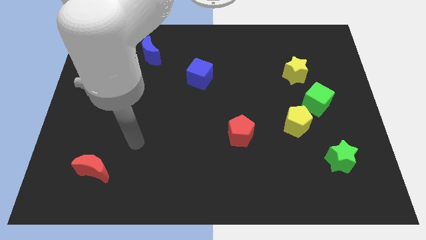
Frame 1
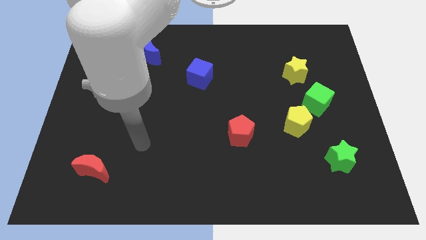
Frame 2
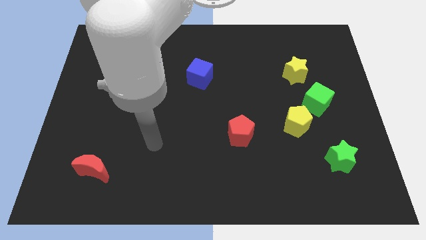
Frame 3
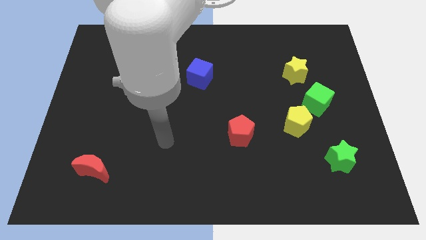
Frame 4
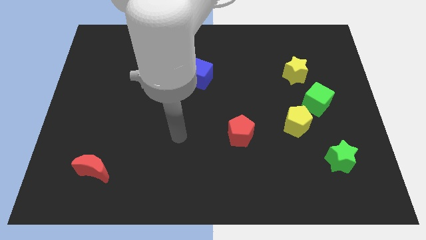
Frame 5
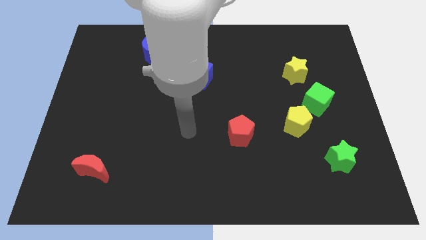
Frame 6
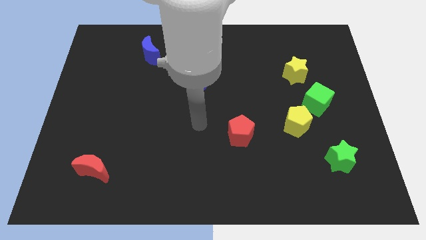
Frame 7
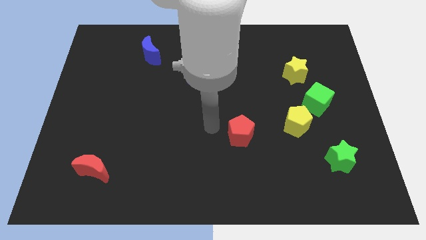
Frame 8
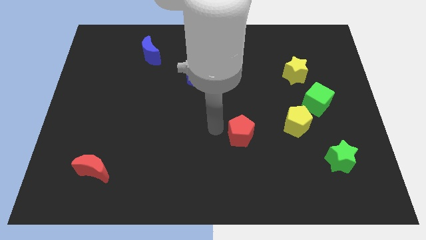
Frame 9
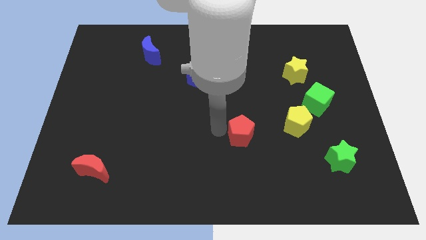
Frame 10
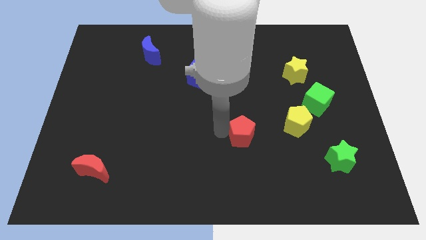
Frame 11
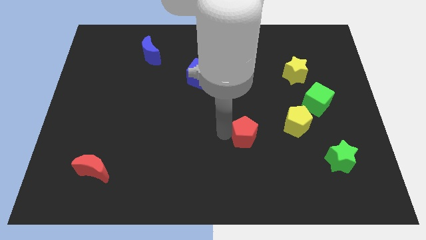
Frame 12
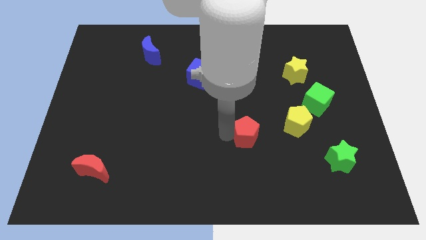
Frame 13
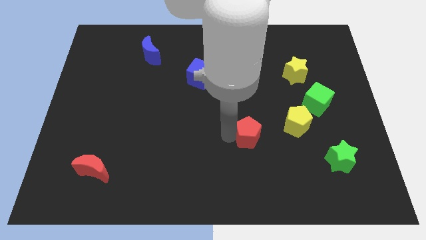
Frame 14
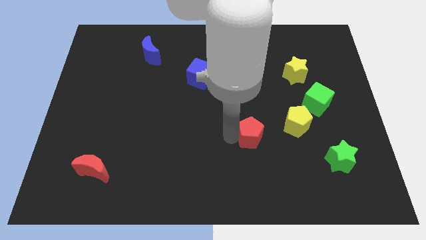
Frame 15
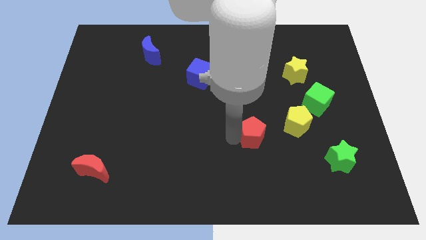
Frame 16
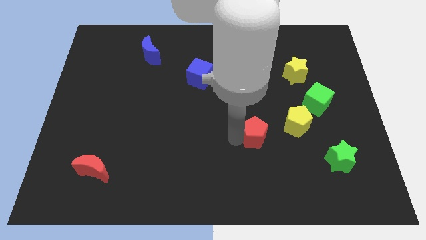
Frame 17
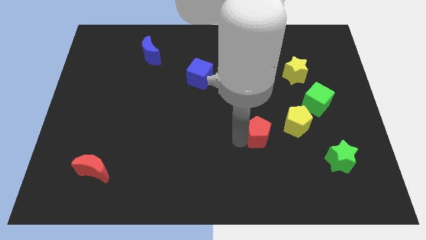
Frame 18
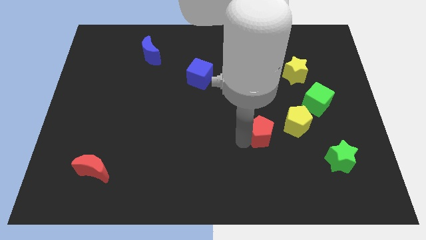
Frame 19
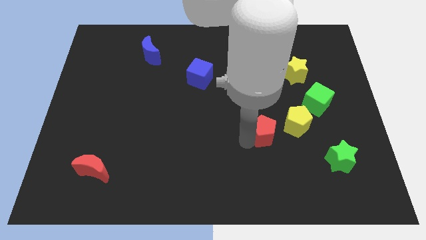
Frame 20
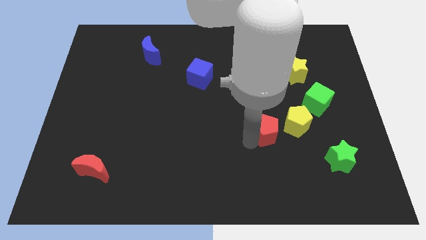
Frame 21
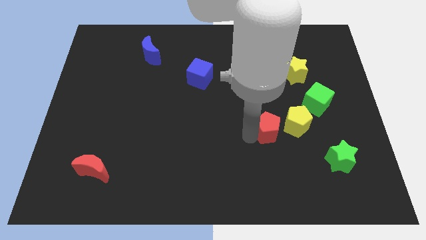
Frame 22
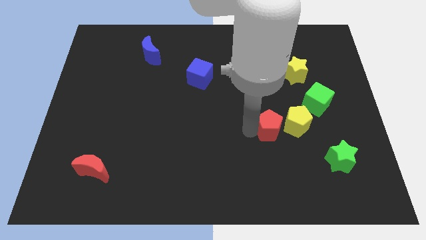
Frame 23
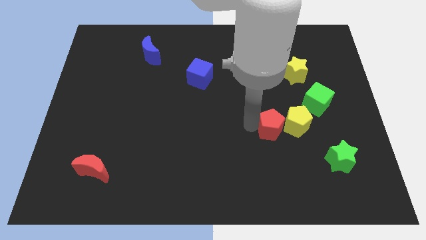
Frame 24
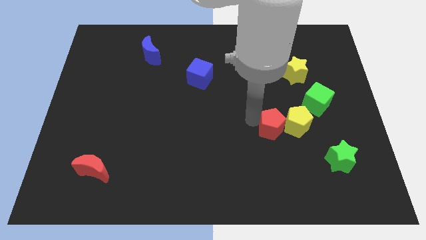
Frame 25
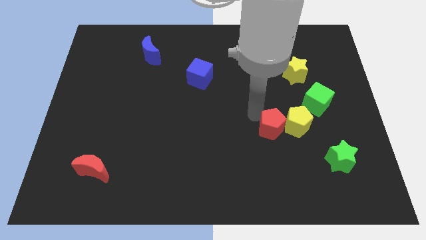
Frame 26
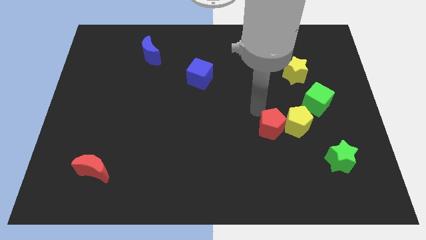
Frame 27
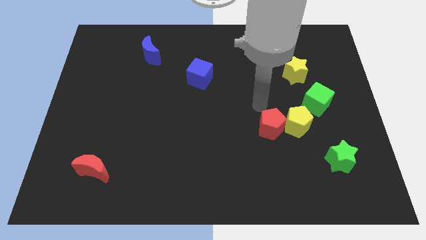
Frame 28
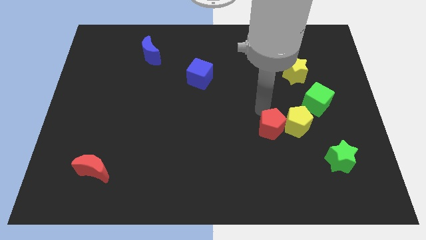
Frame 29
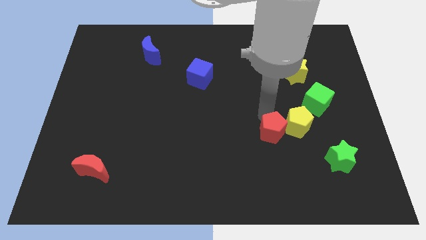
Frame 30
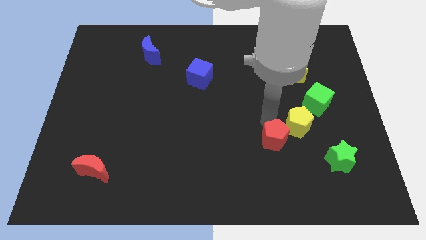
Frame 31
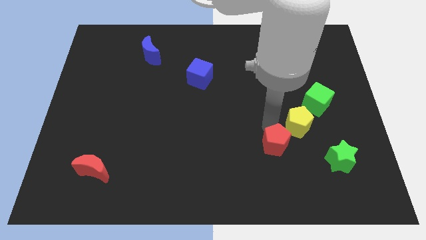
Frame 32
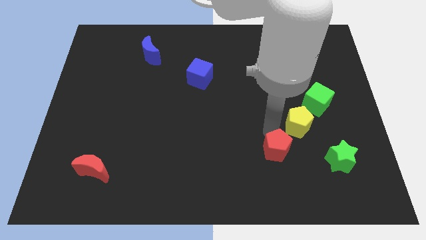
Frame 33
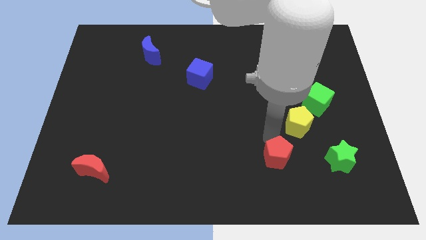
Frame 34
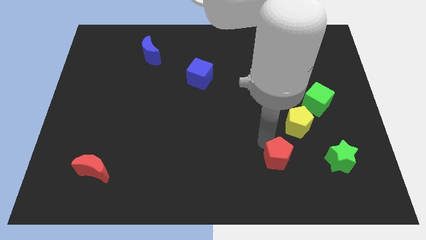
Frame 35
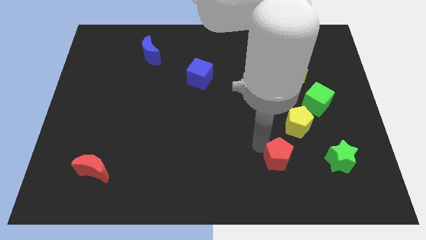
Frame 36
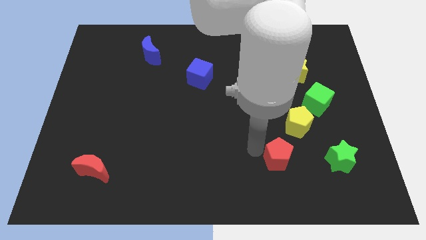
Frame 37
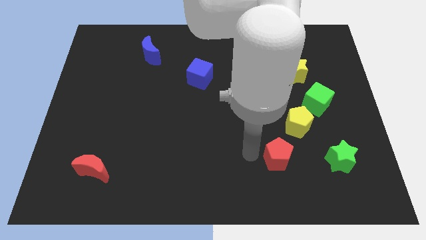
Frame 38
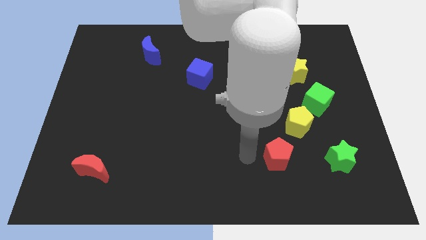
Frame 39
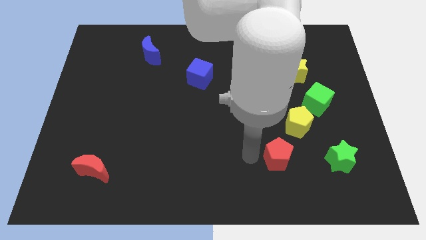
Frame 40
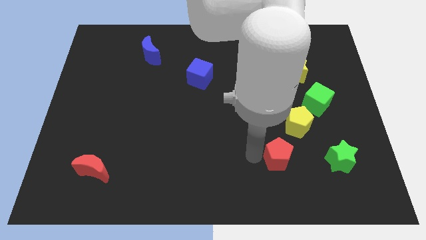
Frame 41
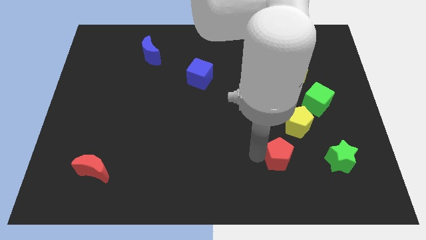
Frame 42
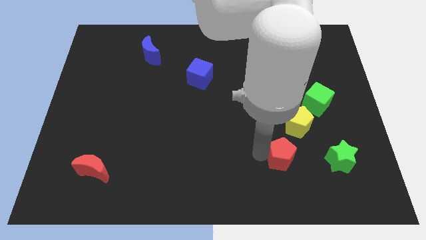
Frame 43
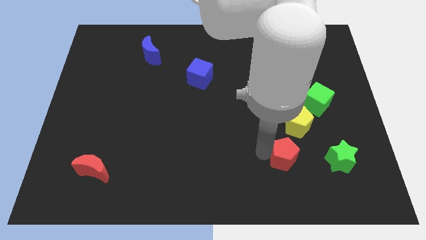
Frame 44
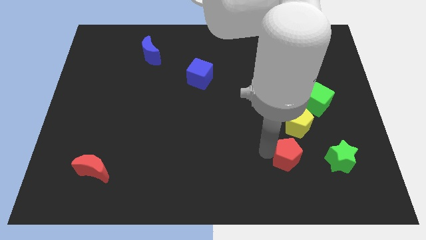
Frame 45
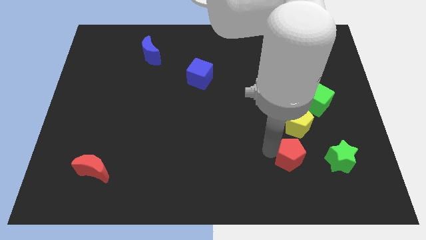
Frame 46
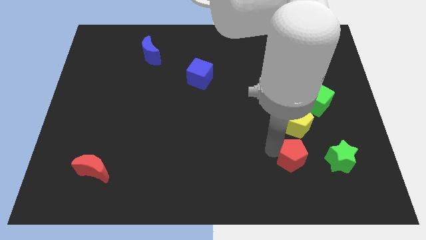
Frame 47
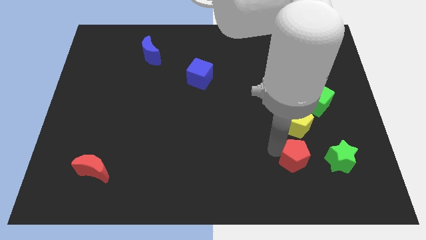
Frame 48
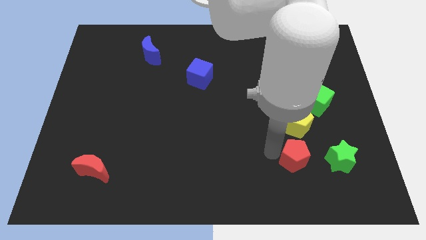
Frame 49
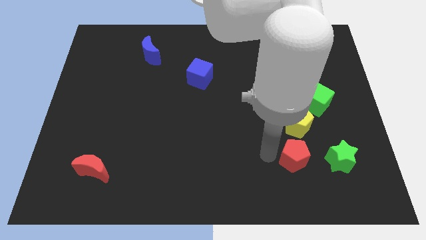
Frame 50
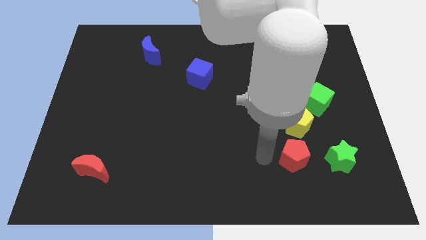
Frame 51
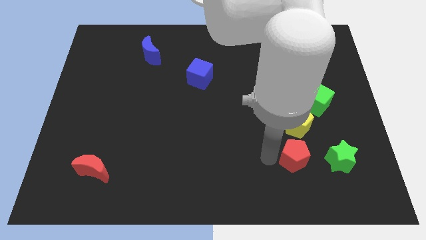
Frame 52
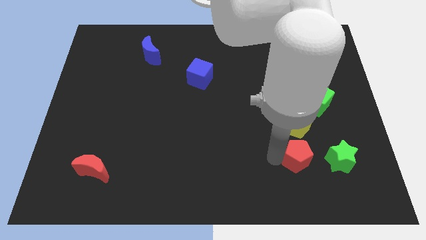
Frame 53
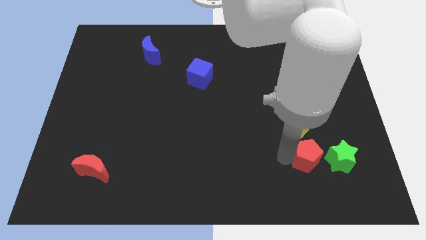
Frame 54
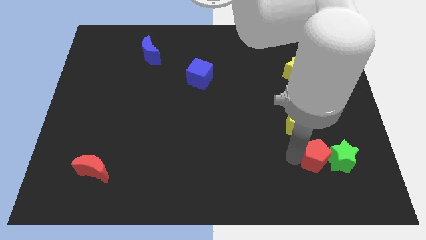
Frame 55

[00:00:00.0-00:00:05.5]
move the red pentagon close to the green star

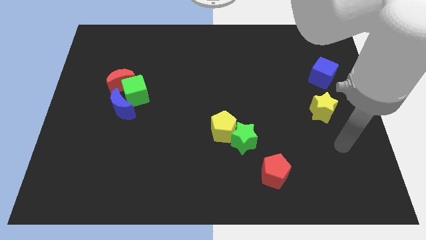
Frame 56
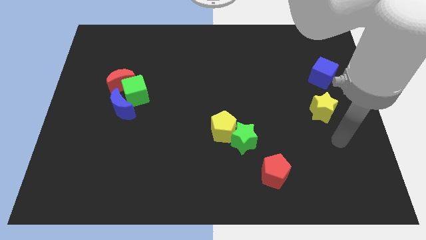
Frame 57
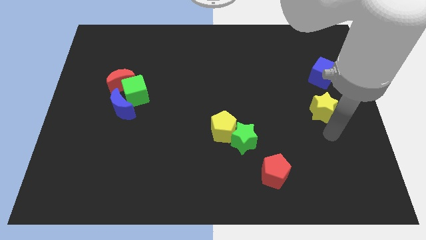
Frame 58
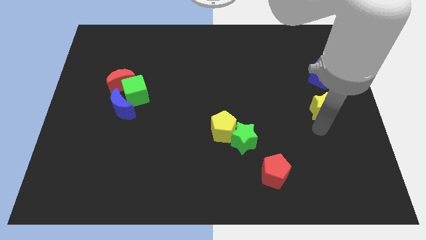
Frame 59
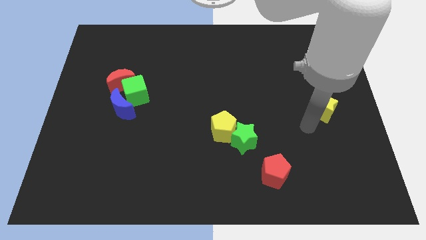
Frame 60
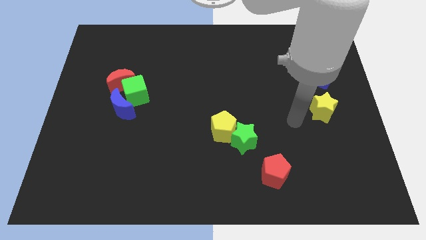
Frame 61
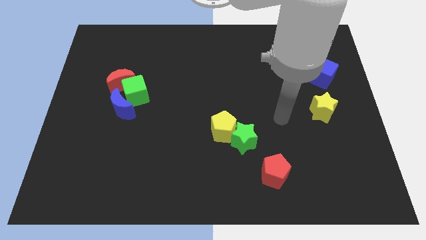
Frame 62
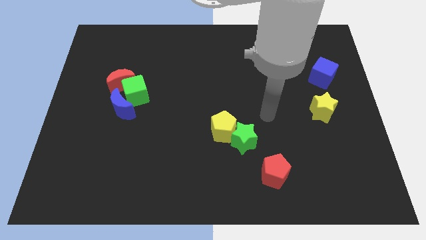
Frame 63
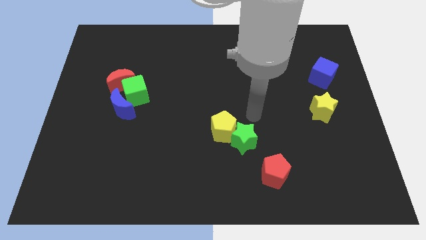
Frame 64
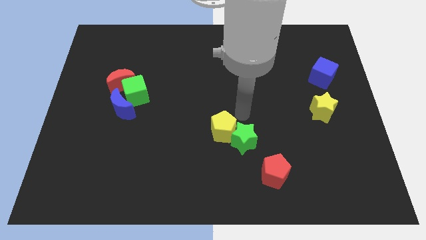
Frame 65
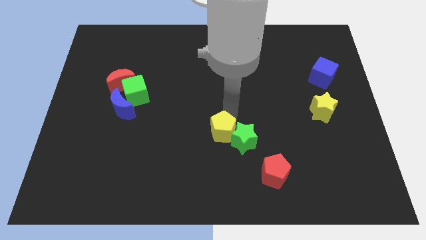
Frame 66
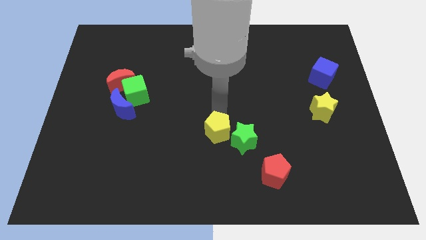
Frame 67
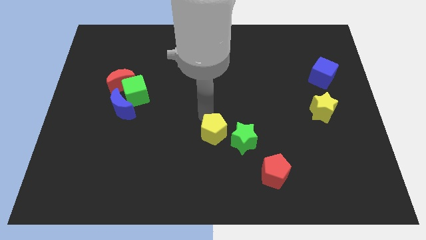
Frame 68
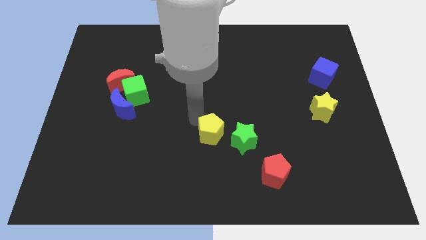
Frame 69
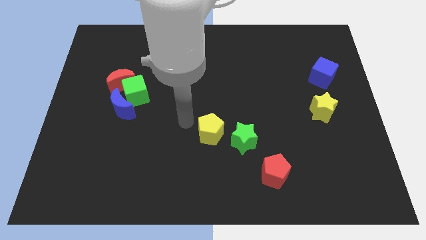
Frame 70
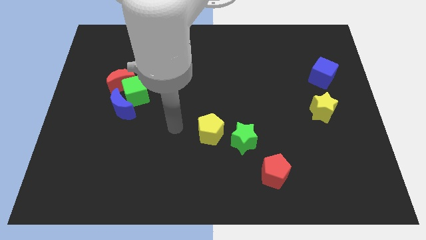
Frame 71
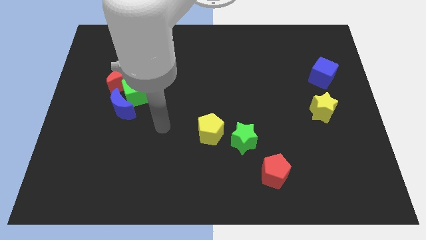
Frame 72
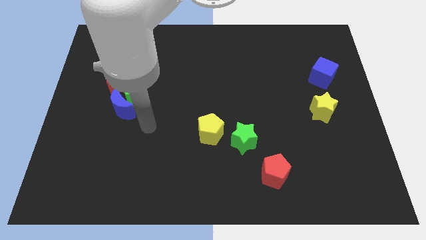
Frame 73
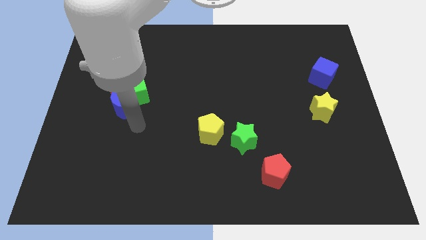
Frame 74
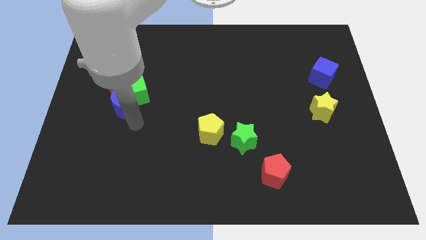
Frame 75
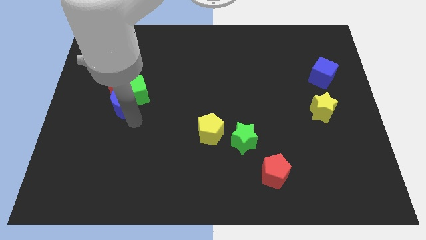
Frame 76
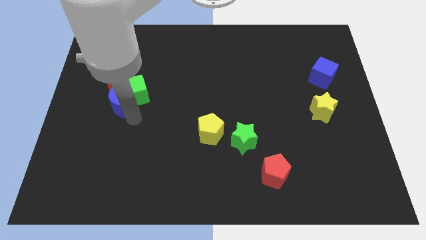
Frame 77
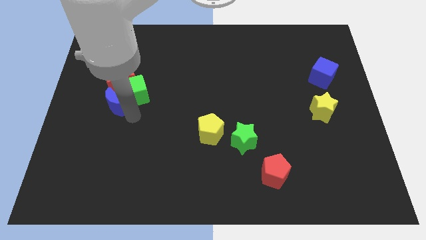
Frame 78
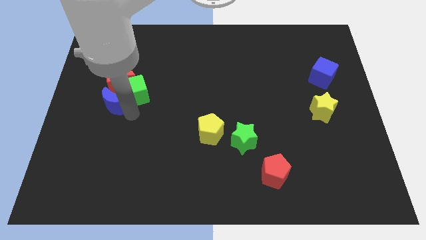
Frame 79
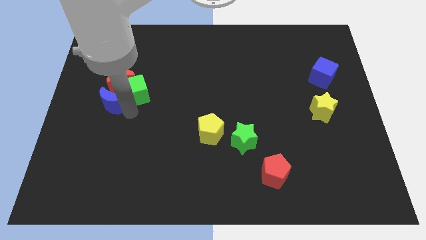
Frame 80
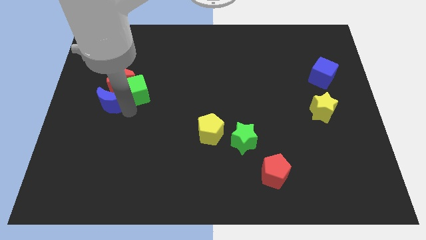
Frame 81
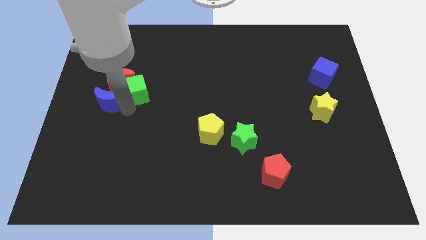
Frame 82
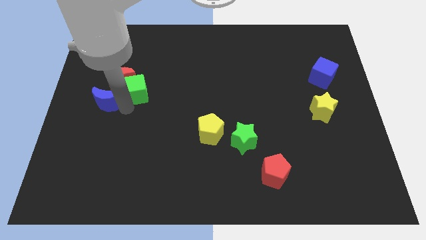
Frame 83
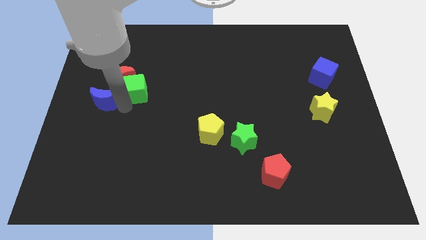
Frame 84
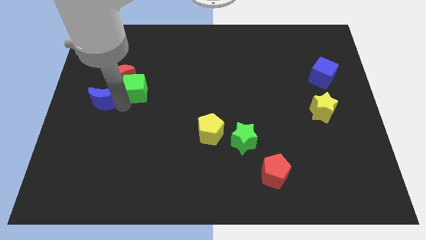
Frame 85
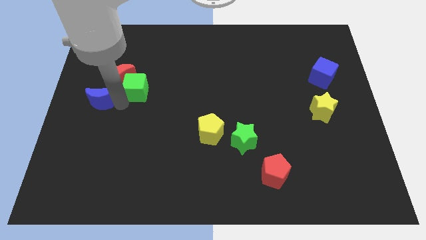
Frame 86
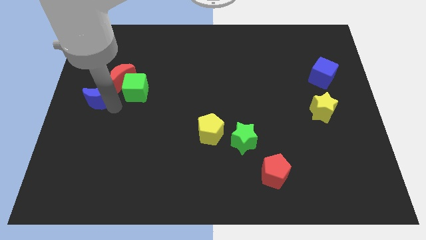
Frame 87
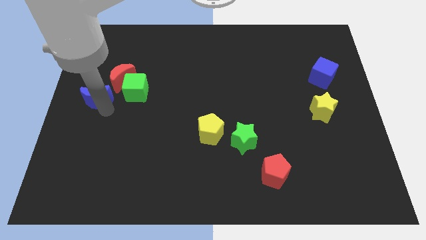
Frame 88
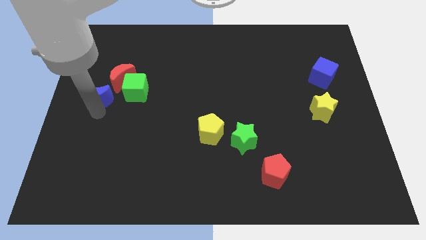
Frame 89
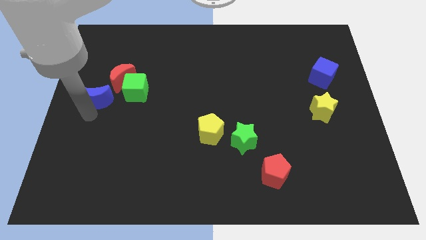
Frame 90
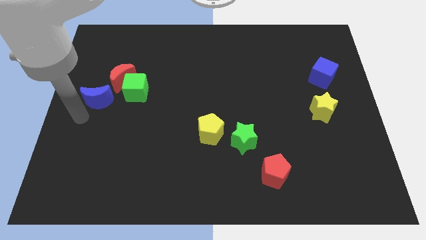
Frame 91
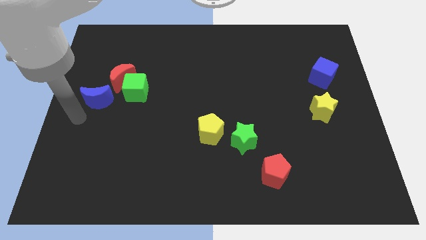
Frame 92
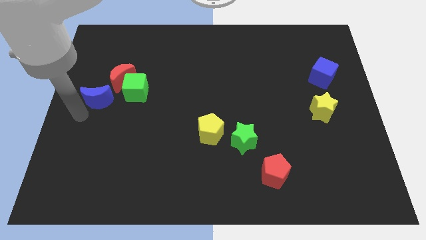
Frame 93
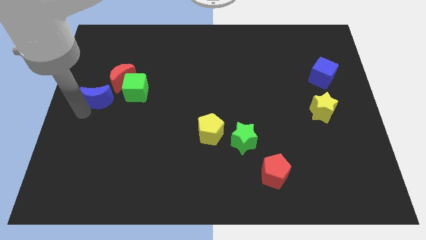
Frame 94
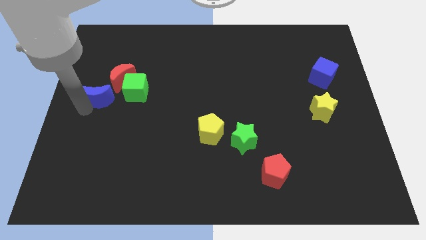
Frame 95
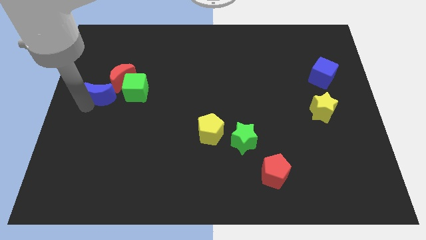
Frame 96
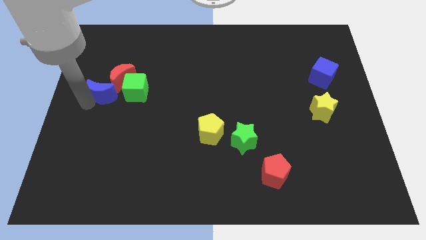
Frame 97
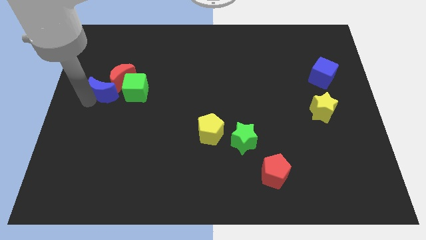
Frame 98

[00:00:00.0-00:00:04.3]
move the blue moon to the red moon
